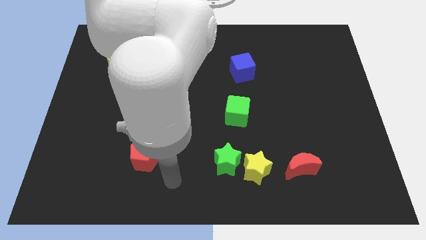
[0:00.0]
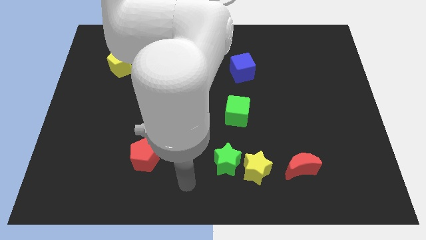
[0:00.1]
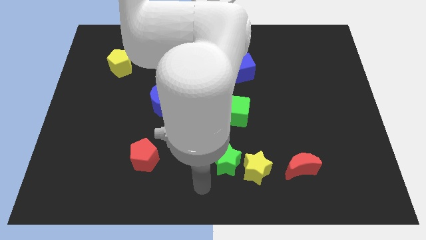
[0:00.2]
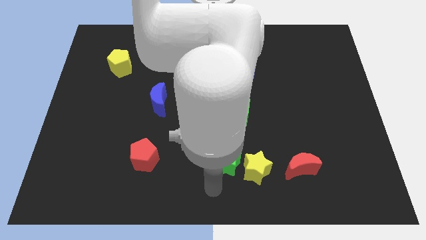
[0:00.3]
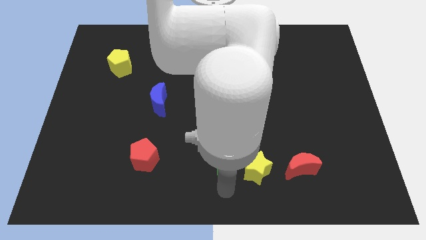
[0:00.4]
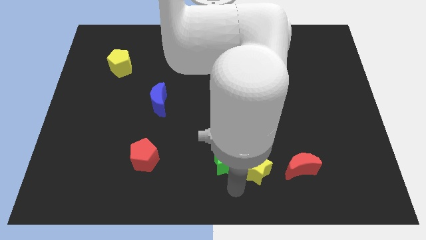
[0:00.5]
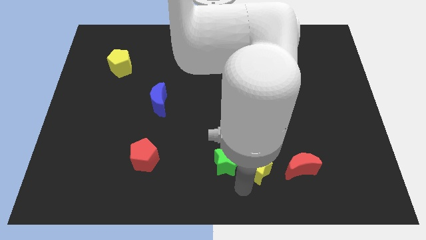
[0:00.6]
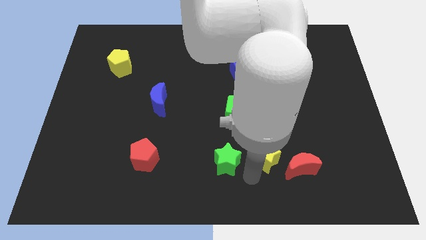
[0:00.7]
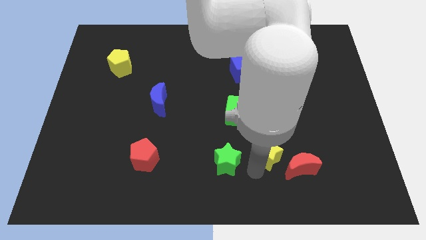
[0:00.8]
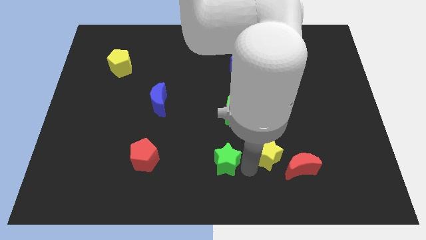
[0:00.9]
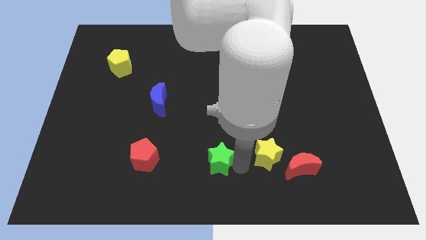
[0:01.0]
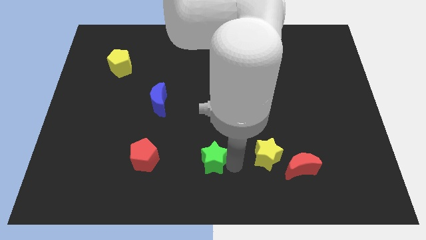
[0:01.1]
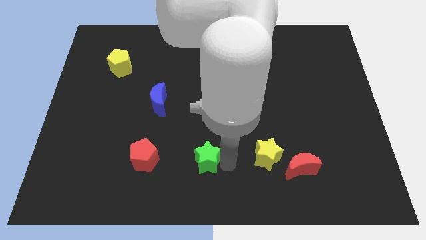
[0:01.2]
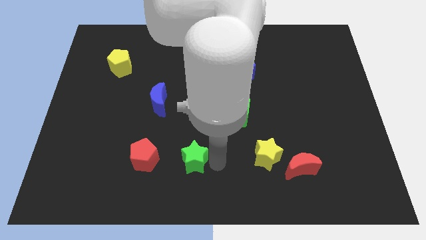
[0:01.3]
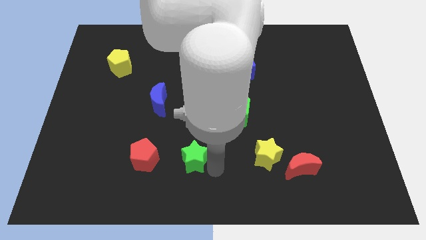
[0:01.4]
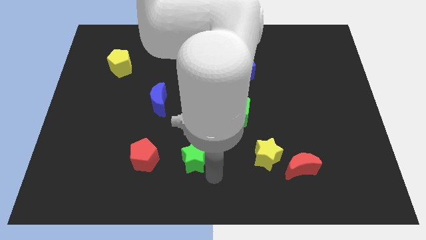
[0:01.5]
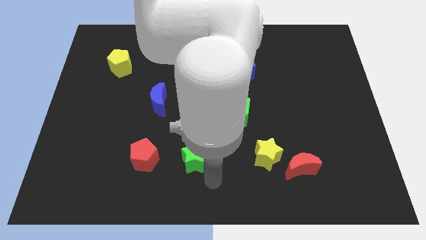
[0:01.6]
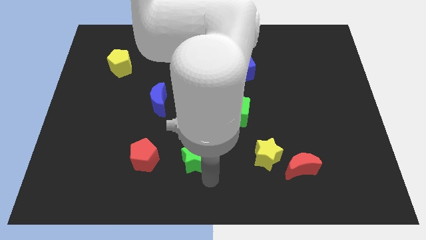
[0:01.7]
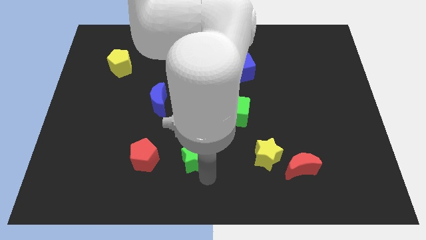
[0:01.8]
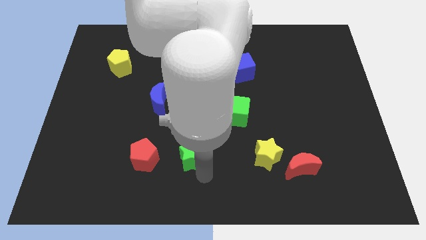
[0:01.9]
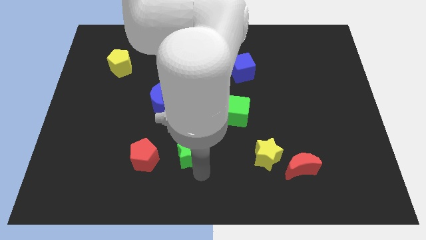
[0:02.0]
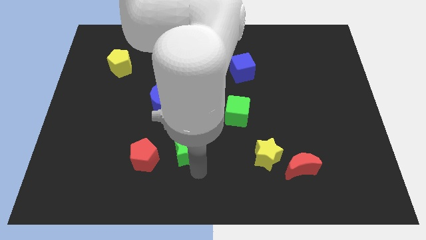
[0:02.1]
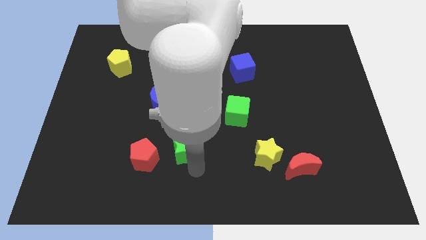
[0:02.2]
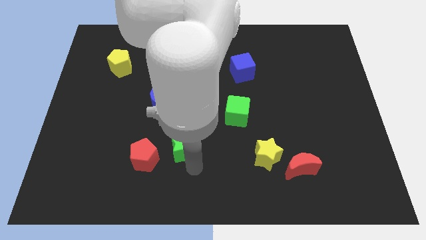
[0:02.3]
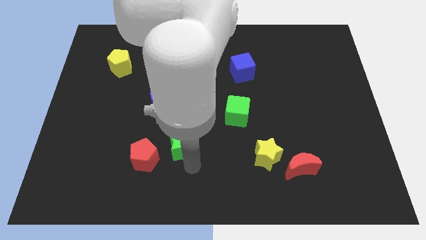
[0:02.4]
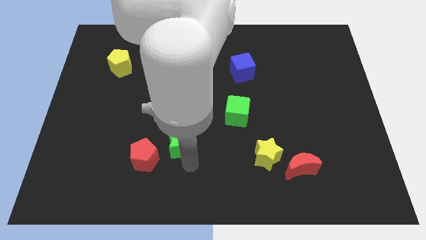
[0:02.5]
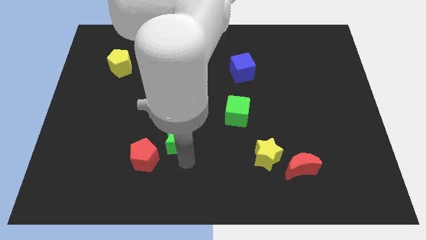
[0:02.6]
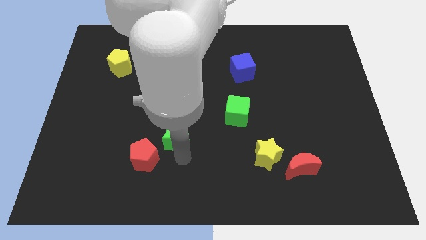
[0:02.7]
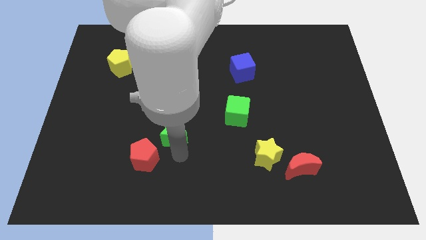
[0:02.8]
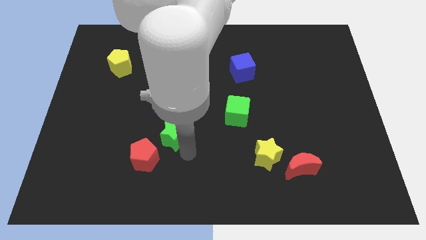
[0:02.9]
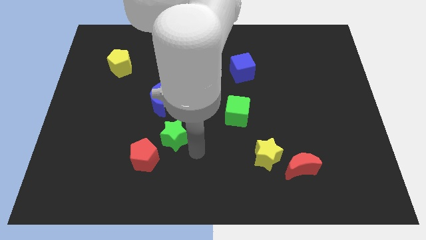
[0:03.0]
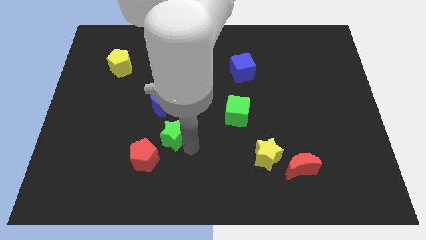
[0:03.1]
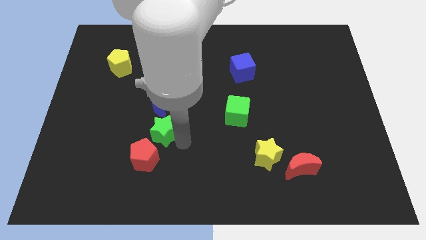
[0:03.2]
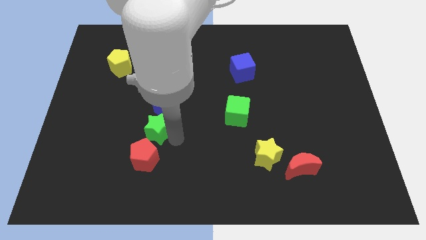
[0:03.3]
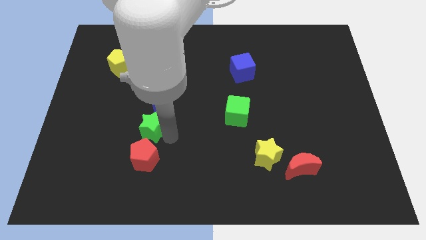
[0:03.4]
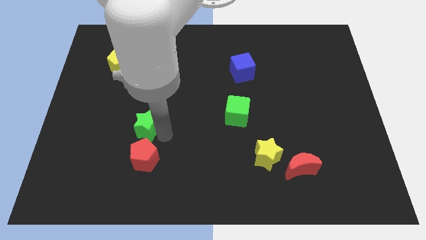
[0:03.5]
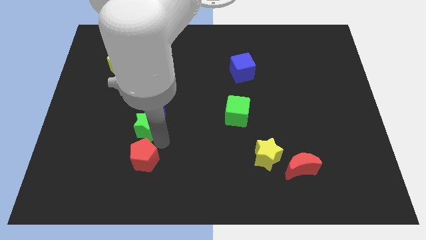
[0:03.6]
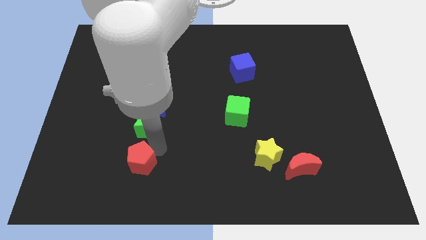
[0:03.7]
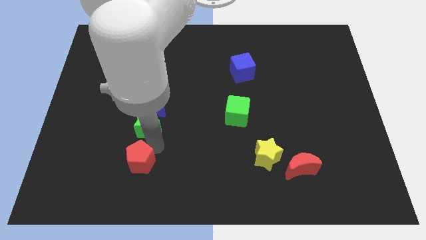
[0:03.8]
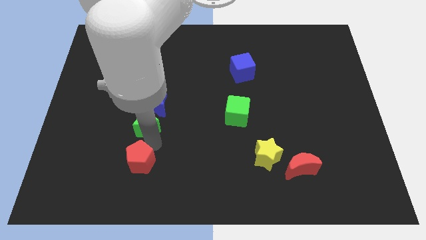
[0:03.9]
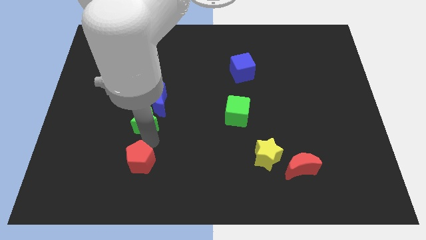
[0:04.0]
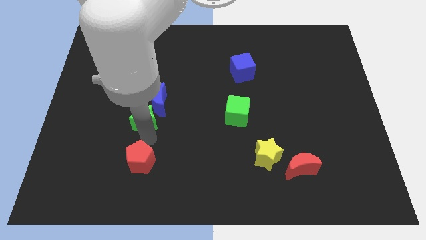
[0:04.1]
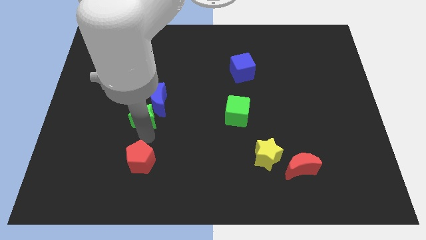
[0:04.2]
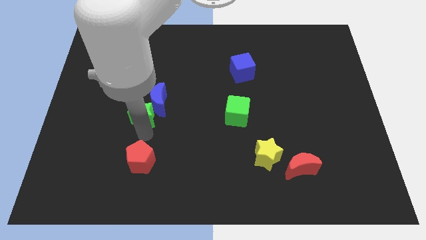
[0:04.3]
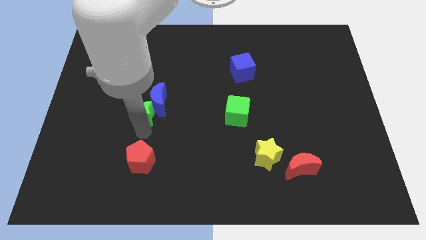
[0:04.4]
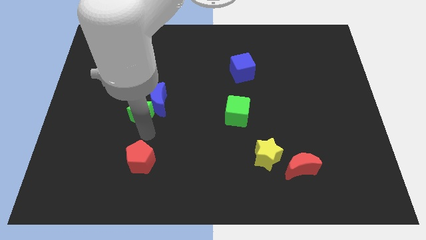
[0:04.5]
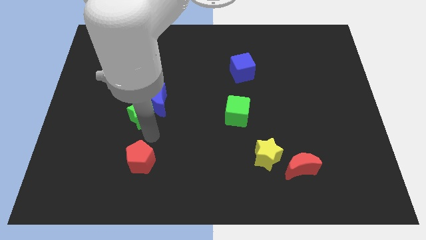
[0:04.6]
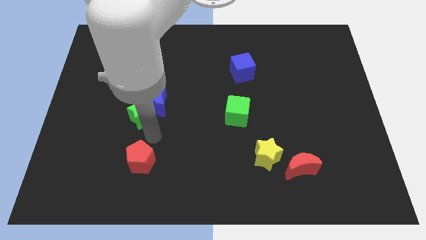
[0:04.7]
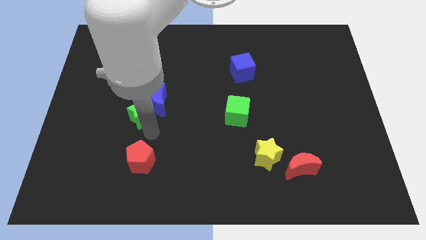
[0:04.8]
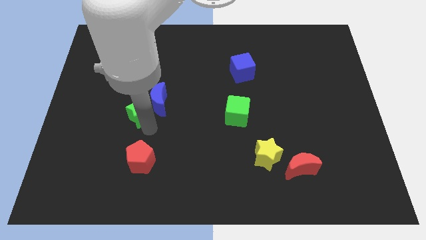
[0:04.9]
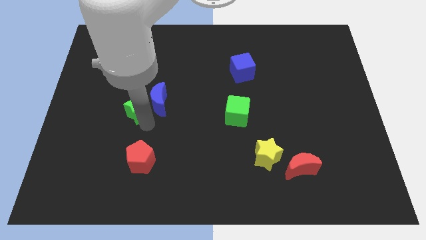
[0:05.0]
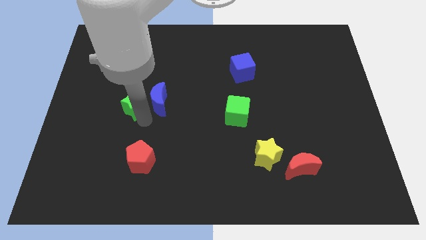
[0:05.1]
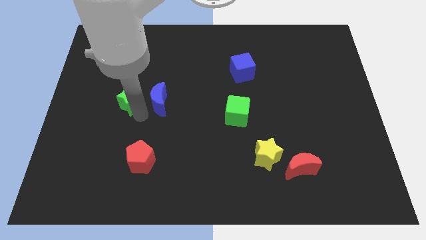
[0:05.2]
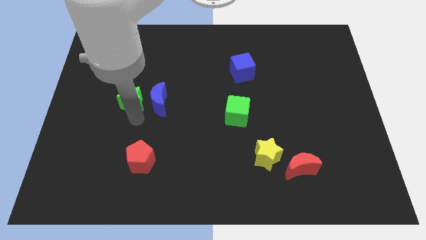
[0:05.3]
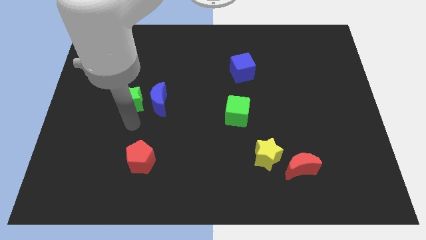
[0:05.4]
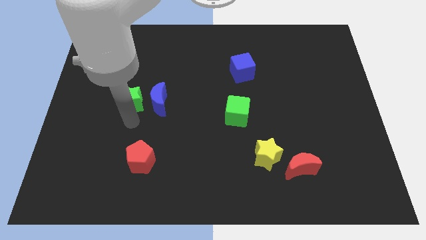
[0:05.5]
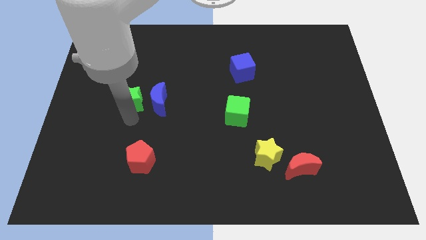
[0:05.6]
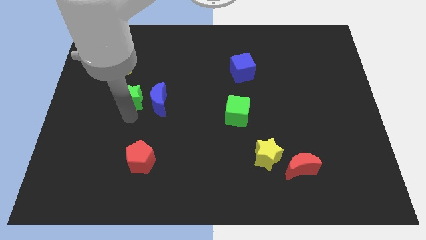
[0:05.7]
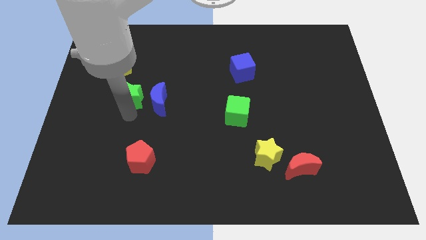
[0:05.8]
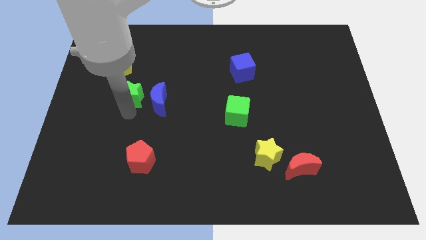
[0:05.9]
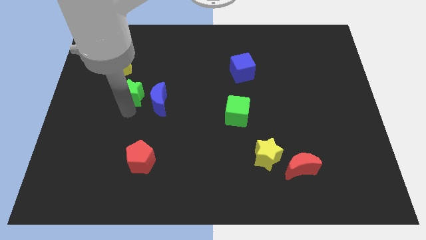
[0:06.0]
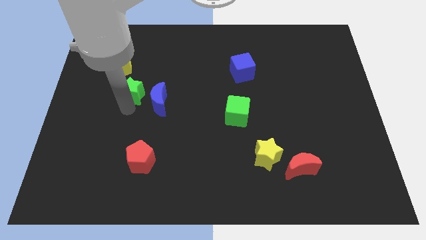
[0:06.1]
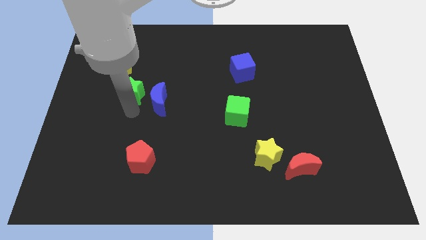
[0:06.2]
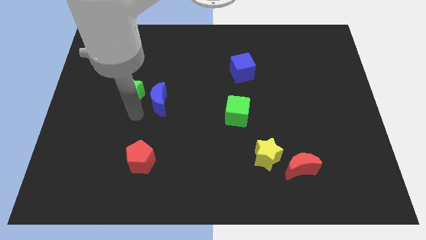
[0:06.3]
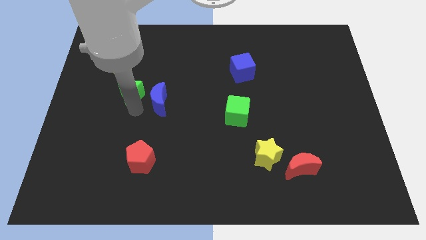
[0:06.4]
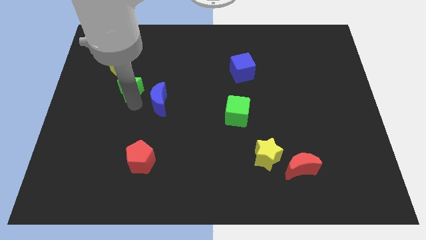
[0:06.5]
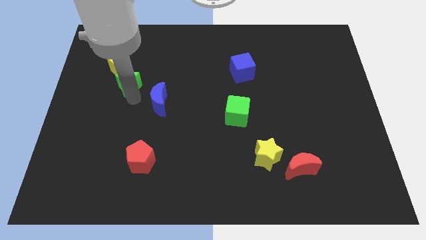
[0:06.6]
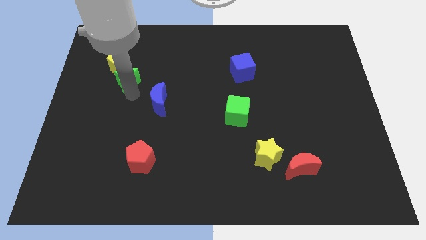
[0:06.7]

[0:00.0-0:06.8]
push the green star close to the yellow pentagon
